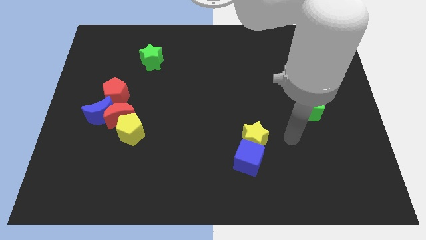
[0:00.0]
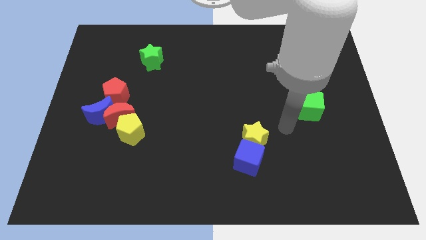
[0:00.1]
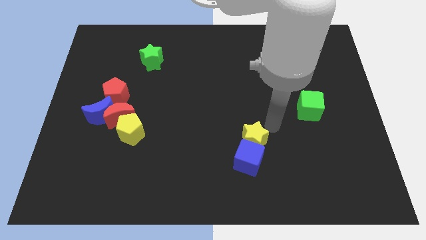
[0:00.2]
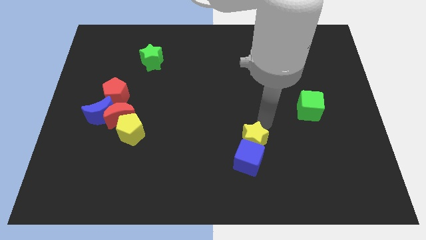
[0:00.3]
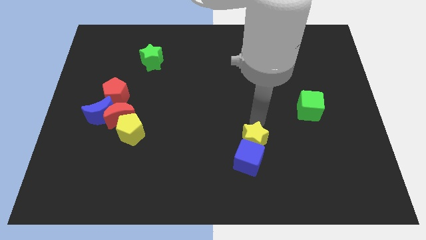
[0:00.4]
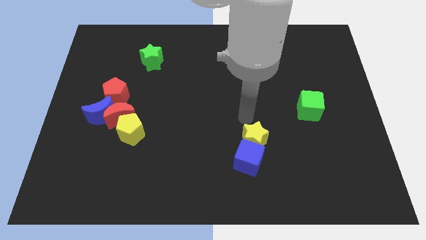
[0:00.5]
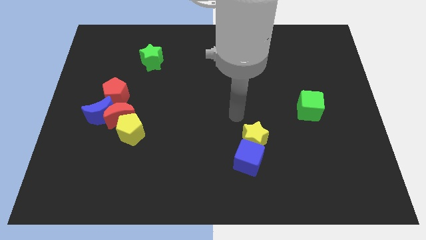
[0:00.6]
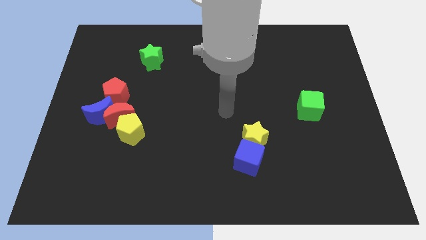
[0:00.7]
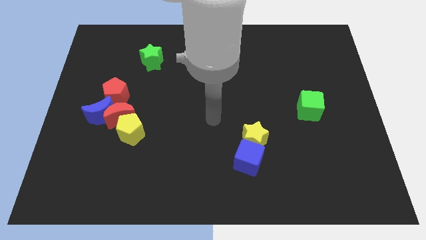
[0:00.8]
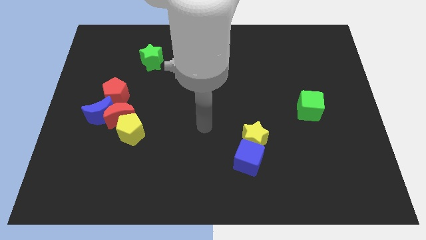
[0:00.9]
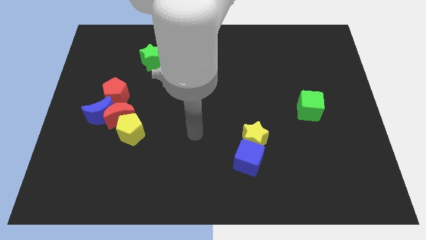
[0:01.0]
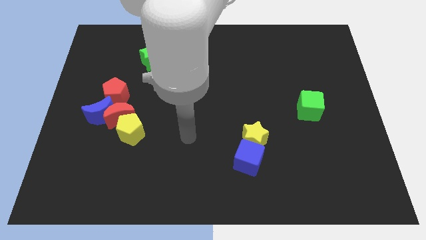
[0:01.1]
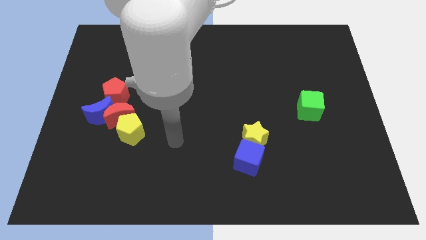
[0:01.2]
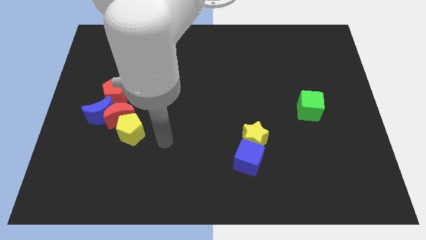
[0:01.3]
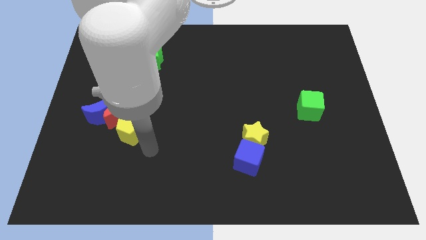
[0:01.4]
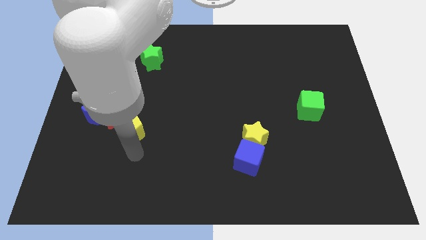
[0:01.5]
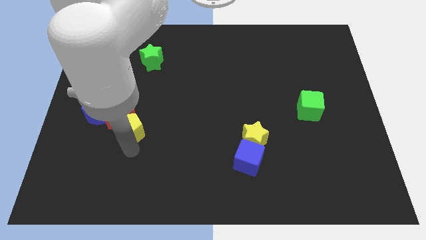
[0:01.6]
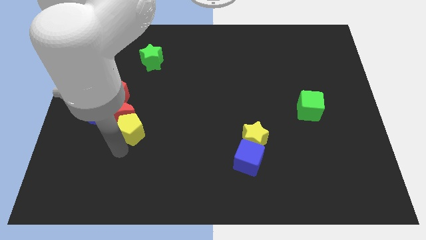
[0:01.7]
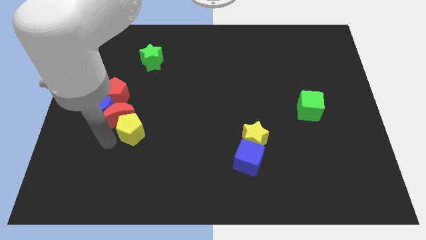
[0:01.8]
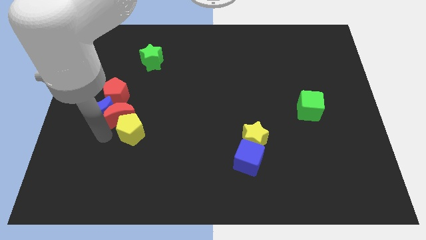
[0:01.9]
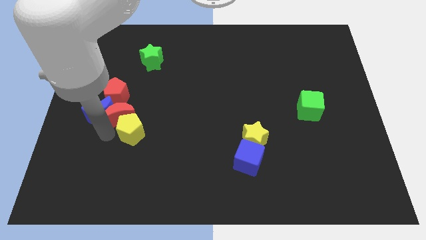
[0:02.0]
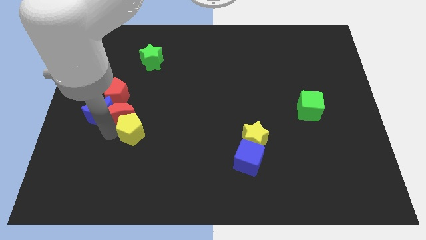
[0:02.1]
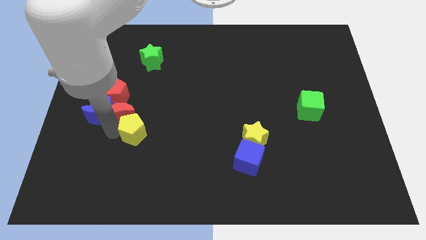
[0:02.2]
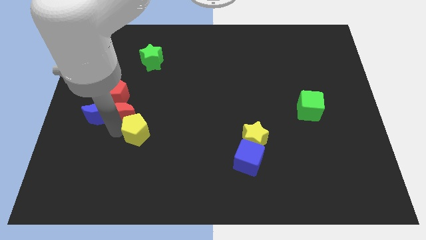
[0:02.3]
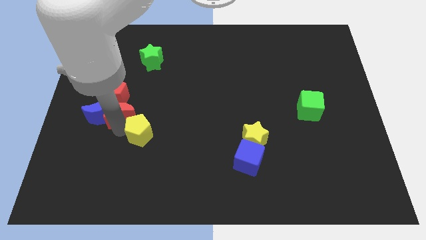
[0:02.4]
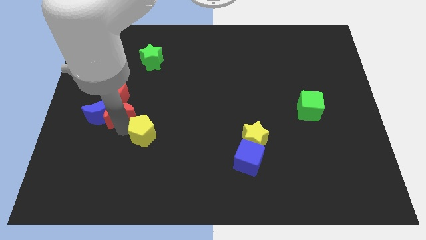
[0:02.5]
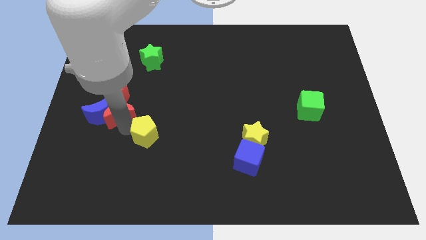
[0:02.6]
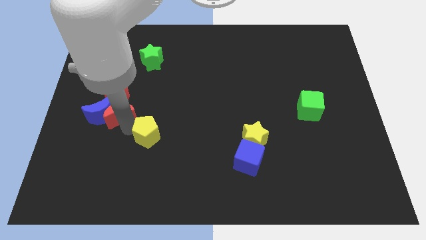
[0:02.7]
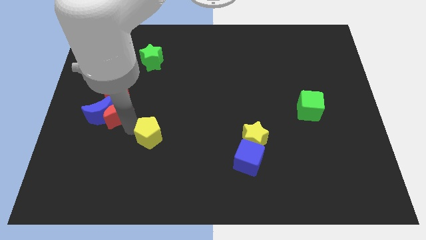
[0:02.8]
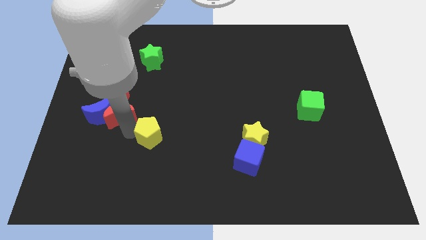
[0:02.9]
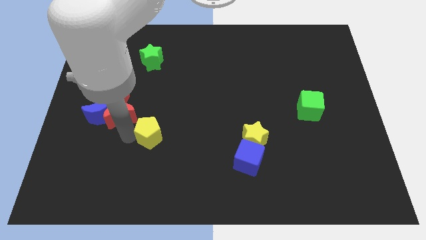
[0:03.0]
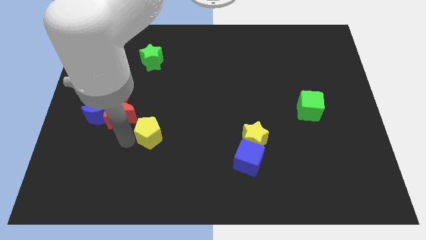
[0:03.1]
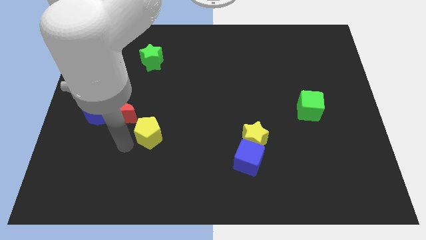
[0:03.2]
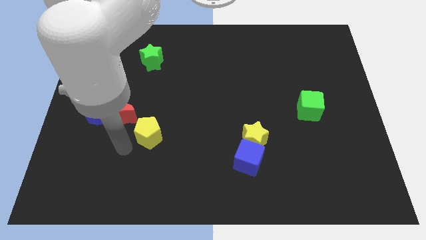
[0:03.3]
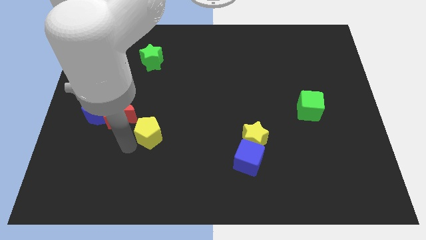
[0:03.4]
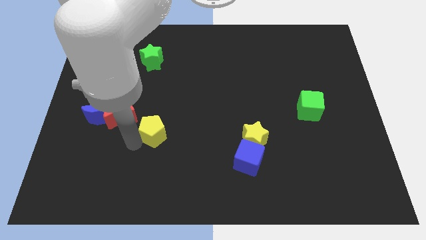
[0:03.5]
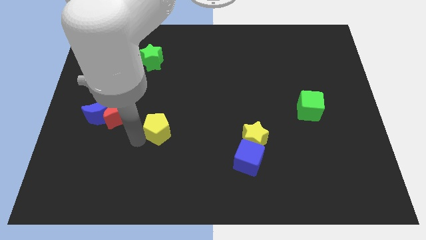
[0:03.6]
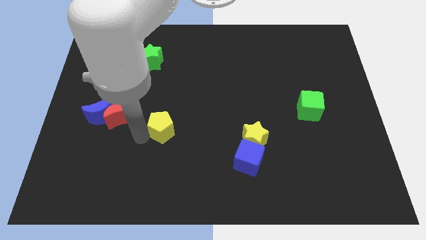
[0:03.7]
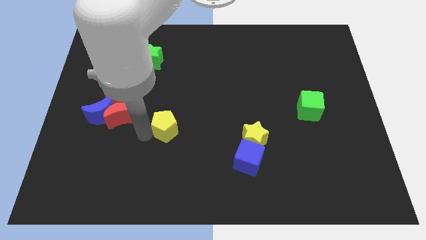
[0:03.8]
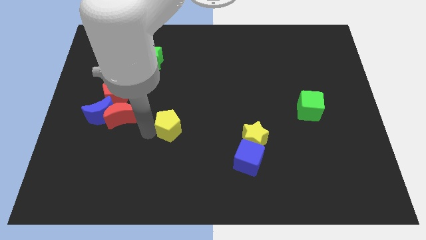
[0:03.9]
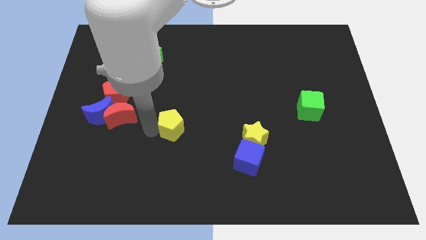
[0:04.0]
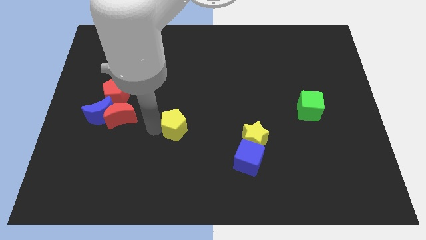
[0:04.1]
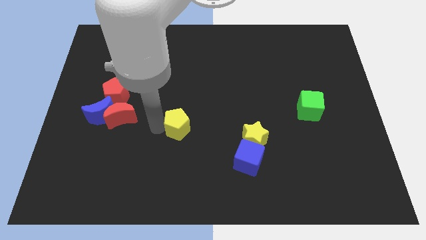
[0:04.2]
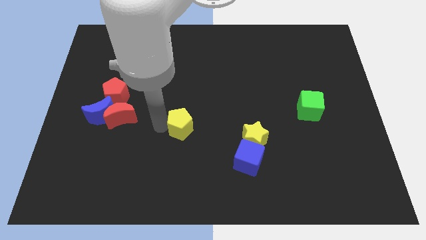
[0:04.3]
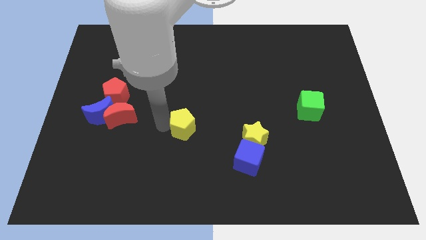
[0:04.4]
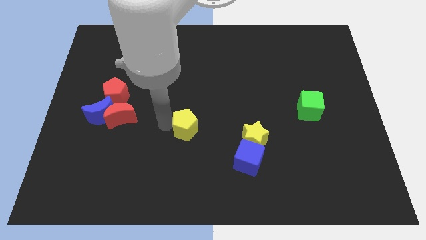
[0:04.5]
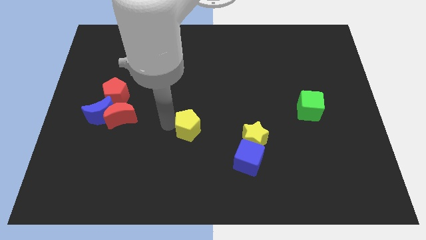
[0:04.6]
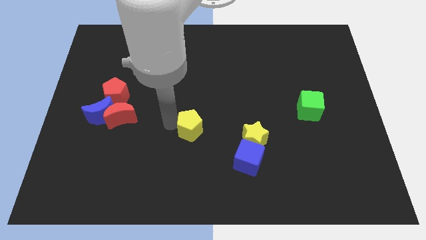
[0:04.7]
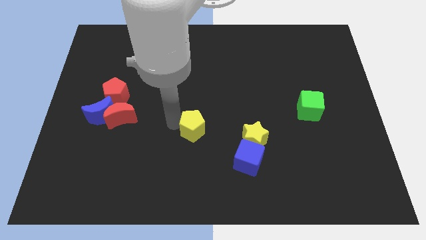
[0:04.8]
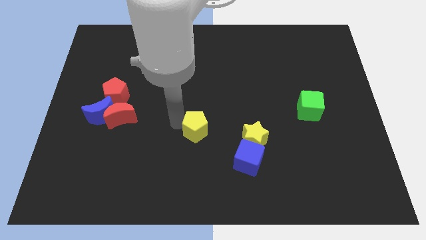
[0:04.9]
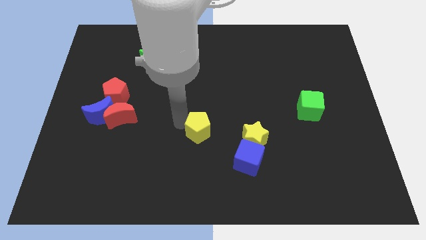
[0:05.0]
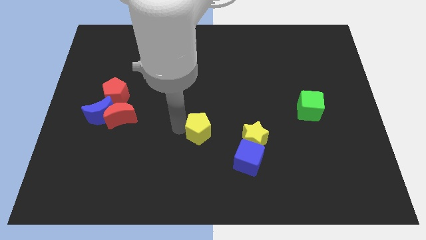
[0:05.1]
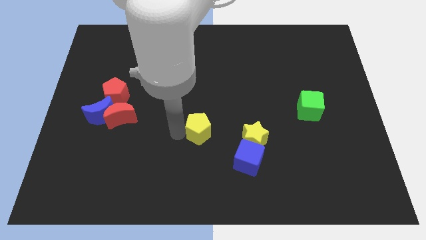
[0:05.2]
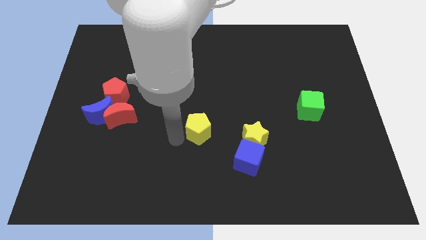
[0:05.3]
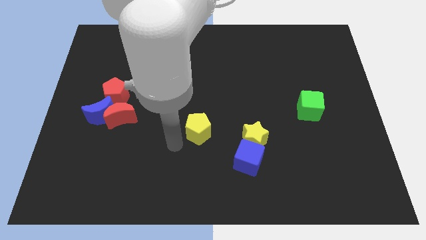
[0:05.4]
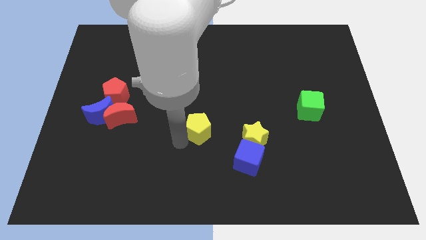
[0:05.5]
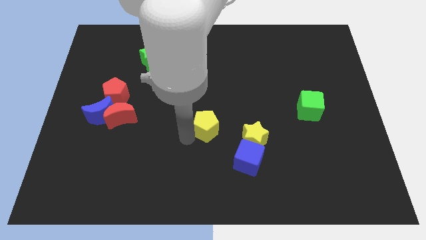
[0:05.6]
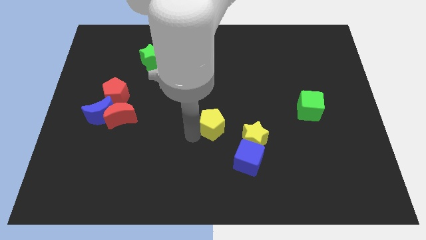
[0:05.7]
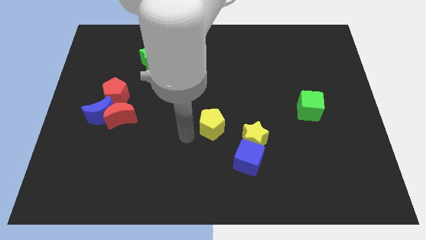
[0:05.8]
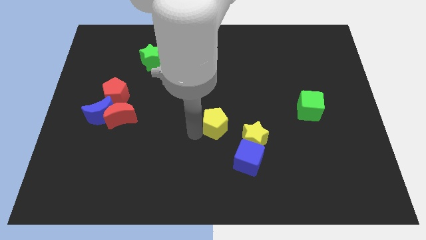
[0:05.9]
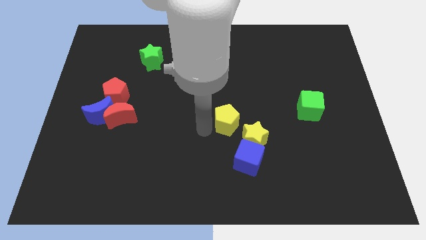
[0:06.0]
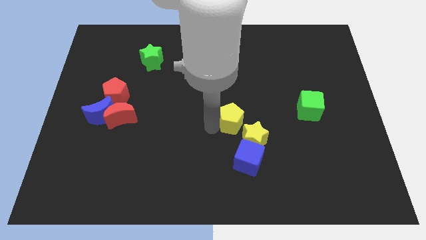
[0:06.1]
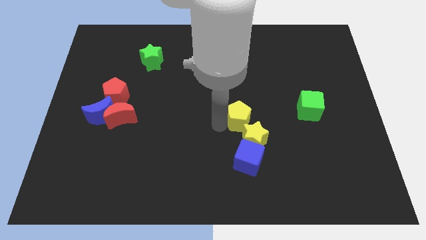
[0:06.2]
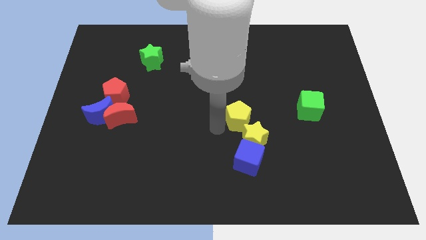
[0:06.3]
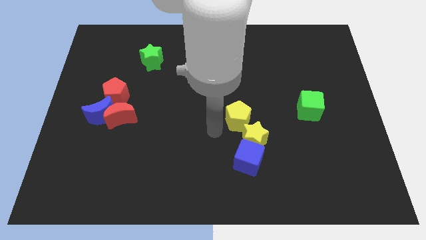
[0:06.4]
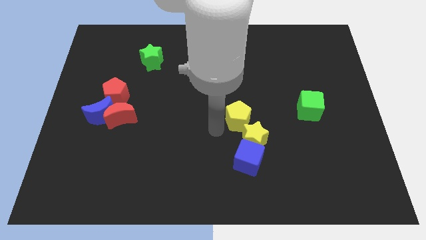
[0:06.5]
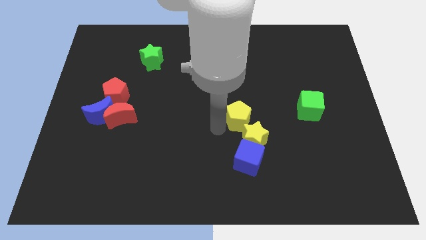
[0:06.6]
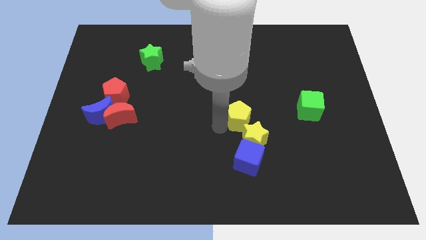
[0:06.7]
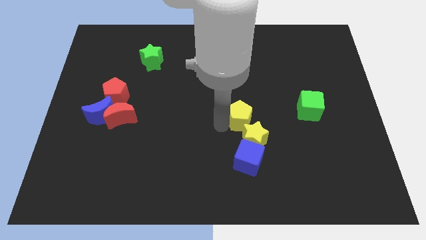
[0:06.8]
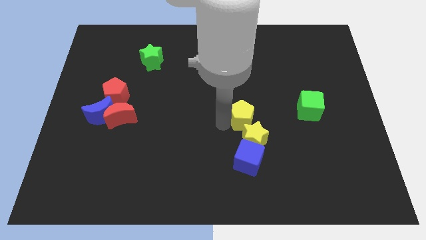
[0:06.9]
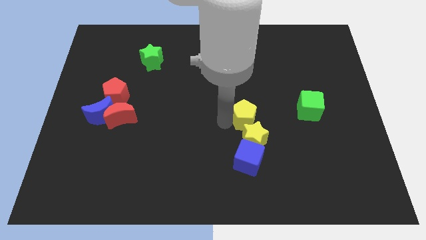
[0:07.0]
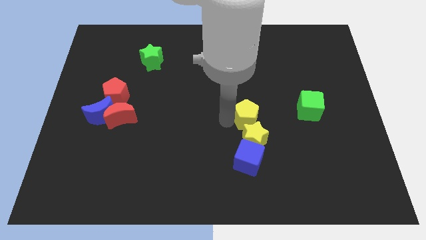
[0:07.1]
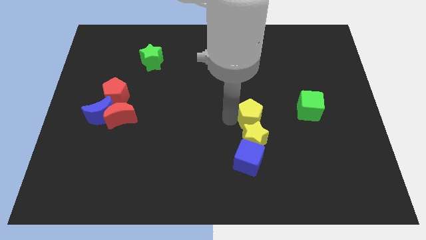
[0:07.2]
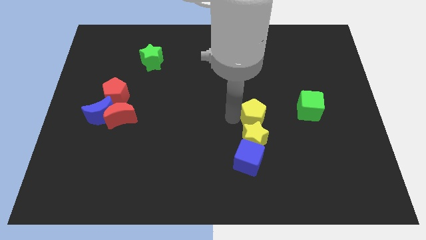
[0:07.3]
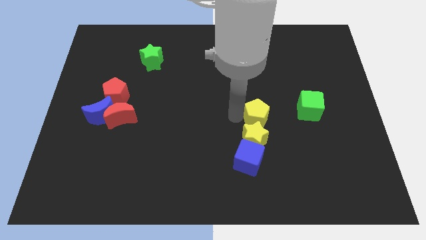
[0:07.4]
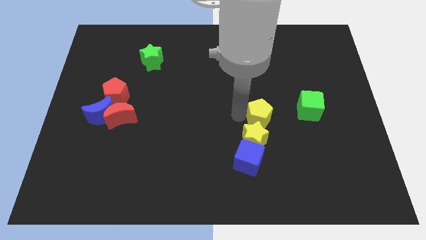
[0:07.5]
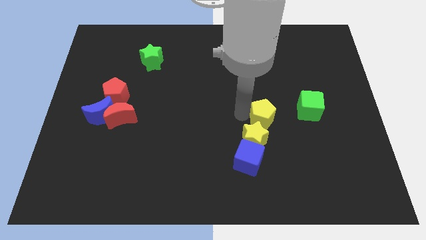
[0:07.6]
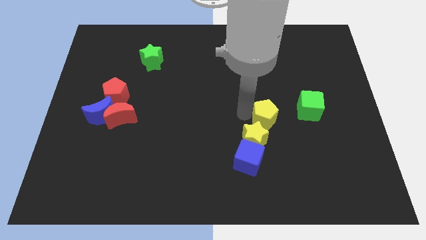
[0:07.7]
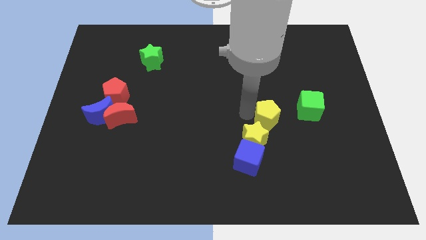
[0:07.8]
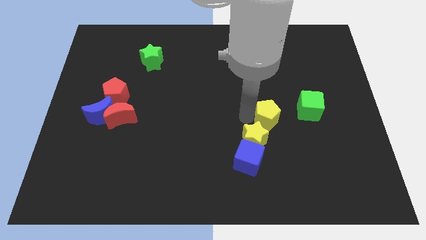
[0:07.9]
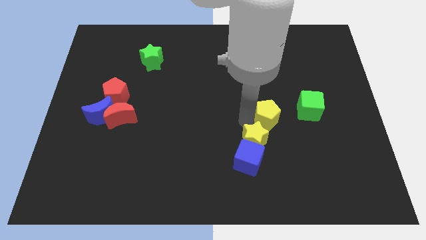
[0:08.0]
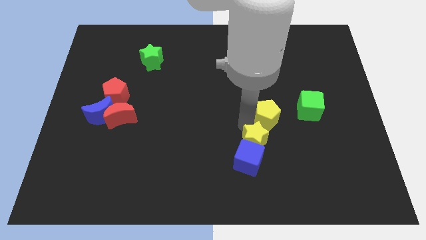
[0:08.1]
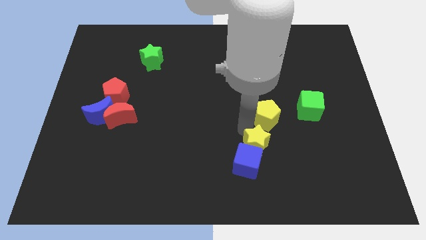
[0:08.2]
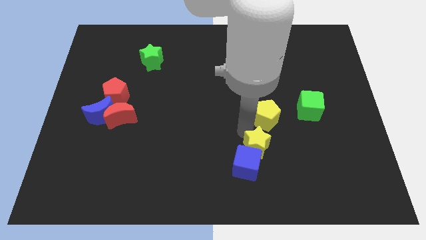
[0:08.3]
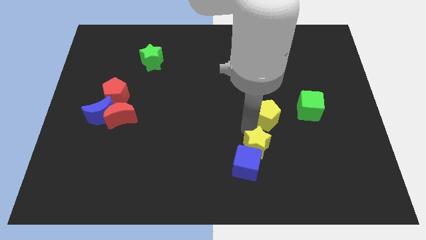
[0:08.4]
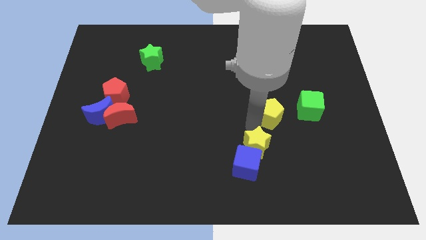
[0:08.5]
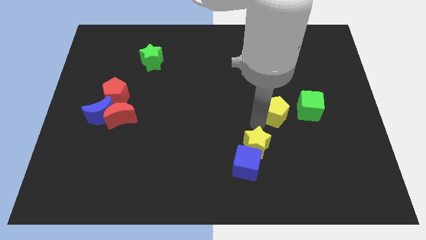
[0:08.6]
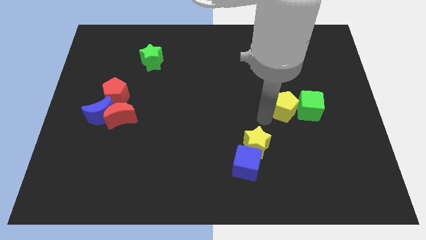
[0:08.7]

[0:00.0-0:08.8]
put the yellow pentagon next to the green cube
